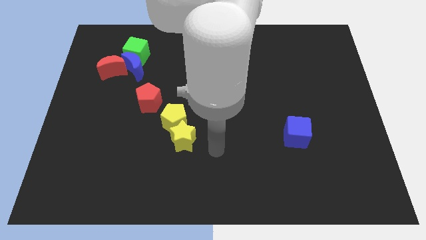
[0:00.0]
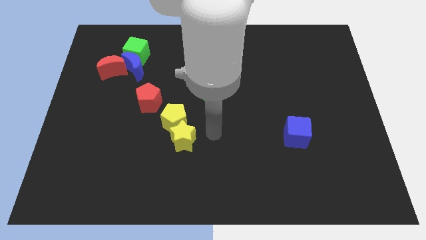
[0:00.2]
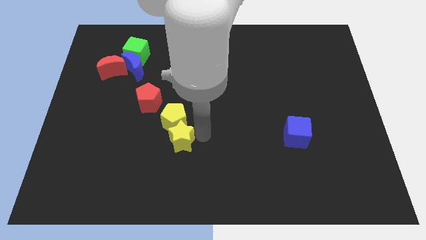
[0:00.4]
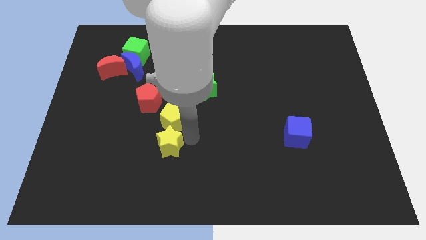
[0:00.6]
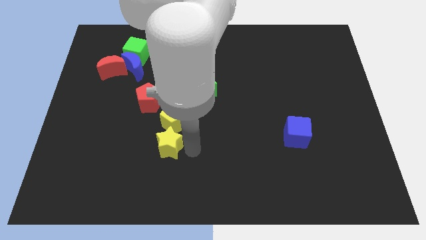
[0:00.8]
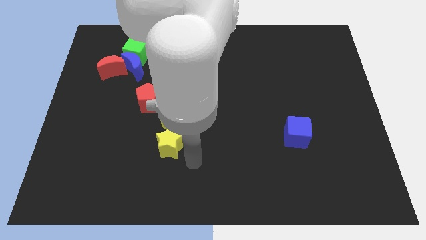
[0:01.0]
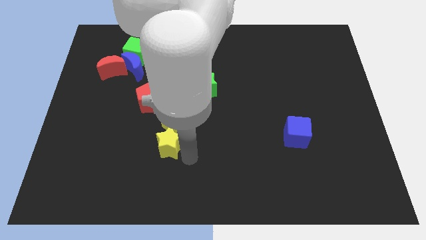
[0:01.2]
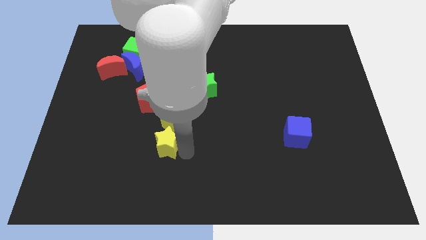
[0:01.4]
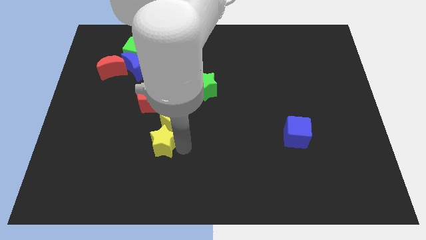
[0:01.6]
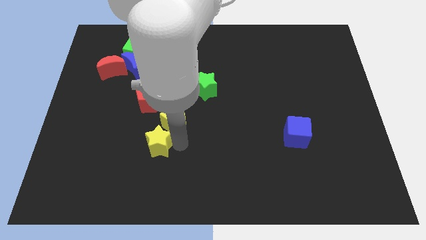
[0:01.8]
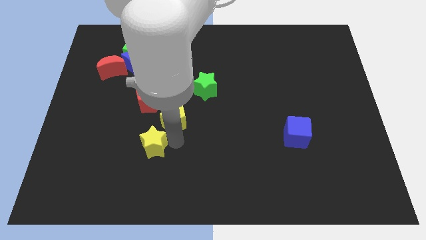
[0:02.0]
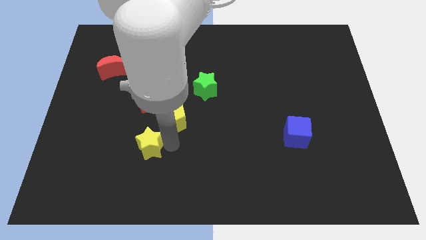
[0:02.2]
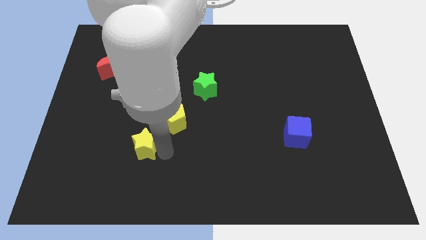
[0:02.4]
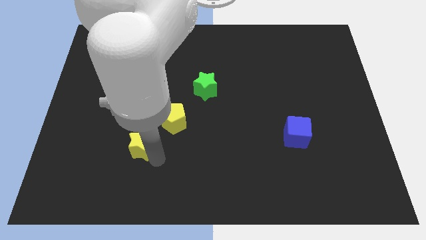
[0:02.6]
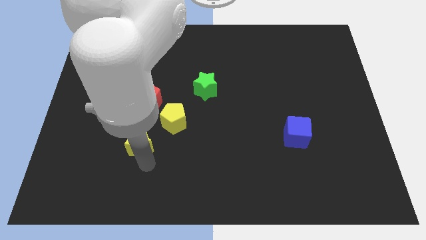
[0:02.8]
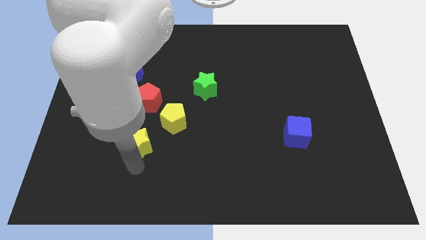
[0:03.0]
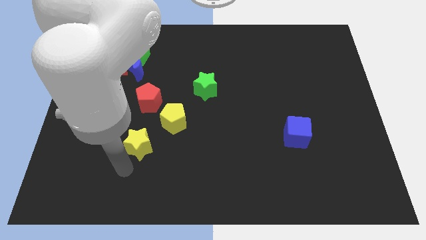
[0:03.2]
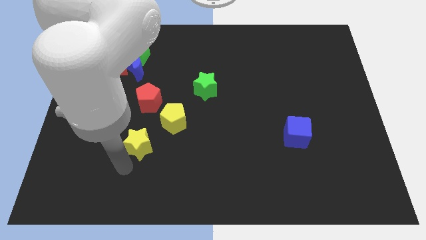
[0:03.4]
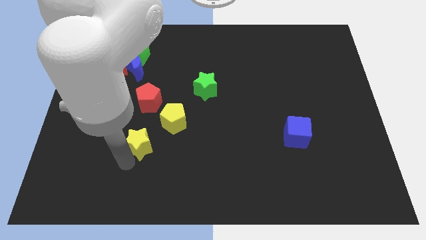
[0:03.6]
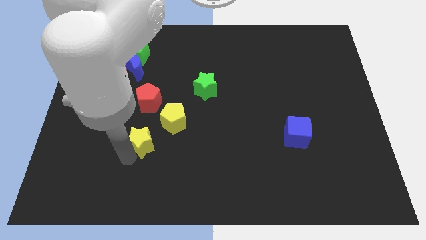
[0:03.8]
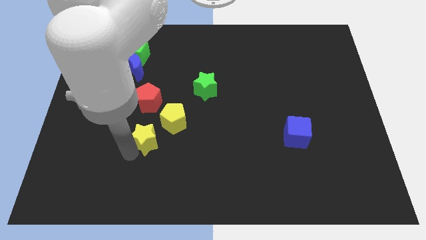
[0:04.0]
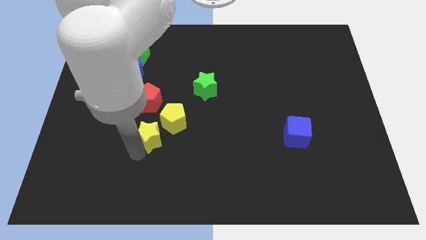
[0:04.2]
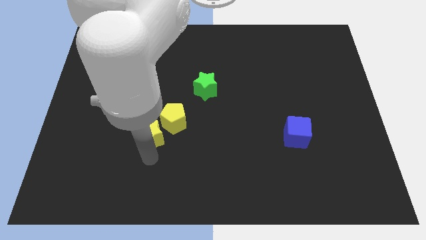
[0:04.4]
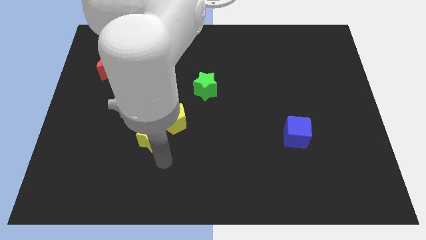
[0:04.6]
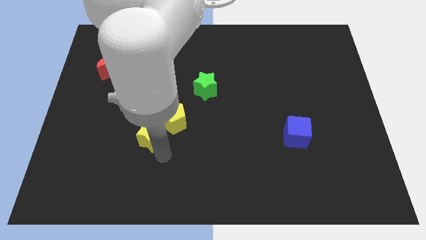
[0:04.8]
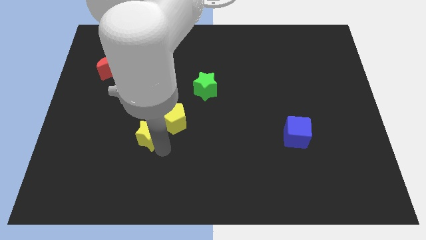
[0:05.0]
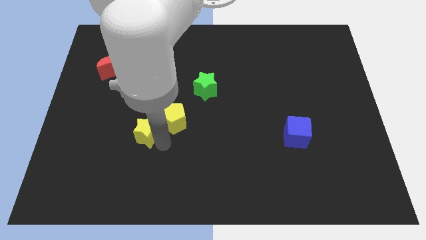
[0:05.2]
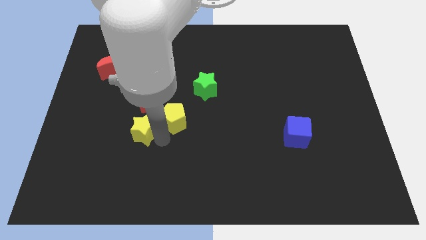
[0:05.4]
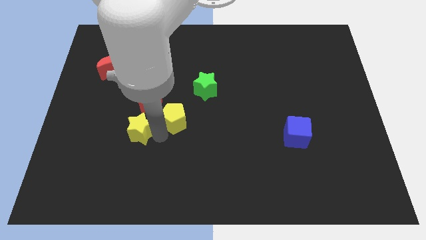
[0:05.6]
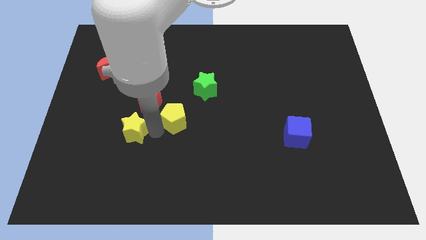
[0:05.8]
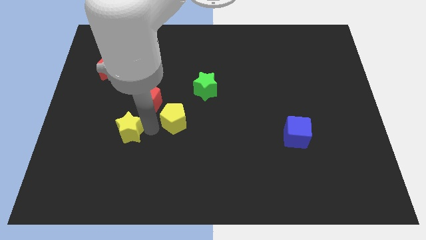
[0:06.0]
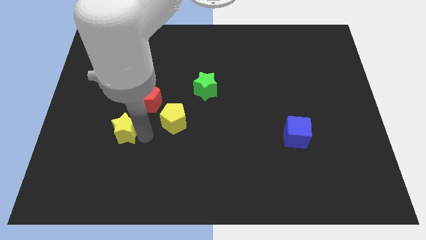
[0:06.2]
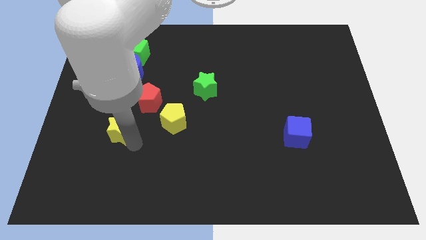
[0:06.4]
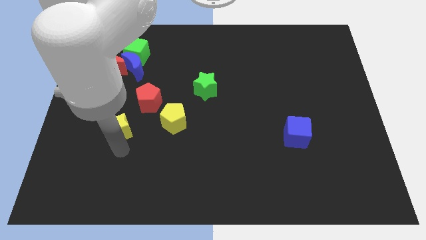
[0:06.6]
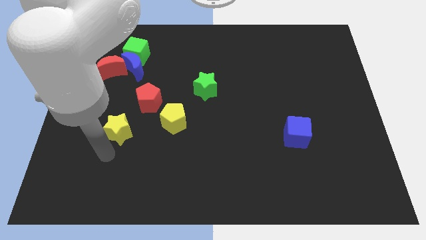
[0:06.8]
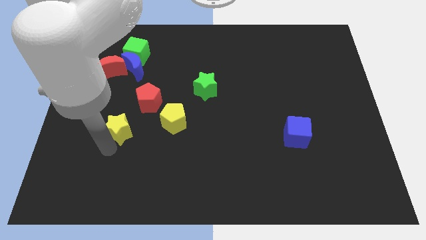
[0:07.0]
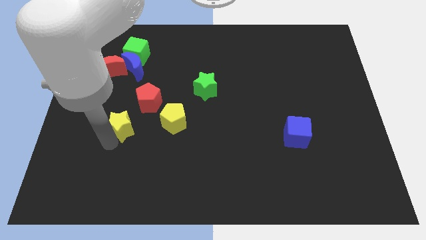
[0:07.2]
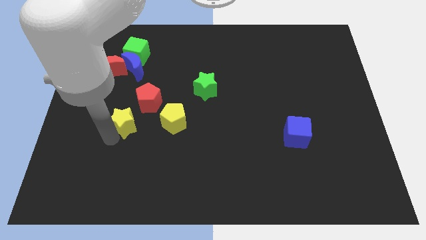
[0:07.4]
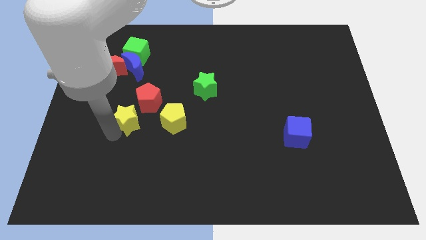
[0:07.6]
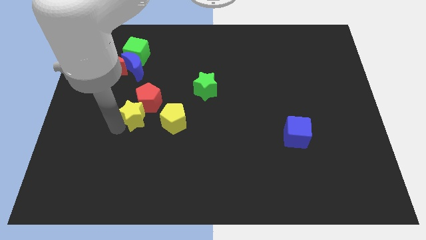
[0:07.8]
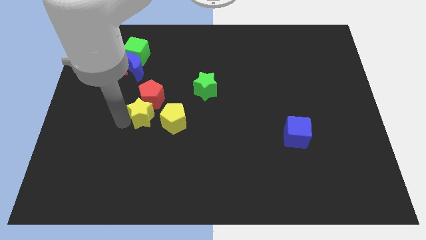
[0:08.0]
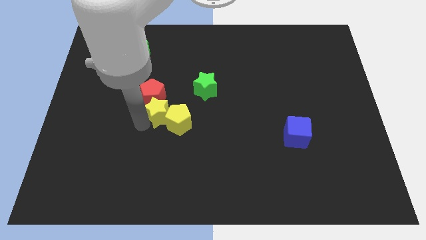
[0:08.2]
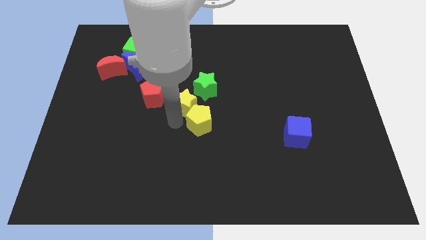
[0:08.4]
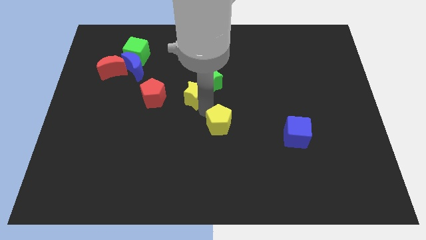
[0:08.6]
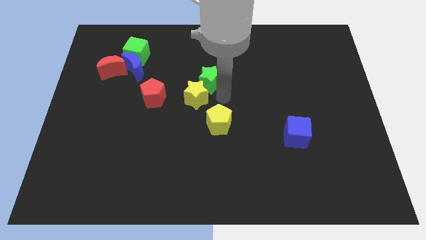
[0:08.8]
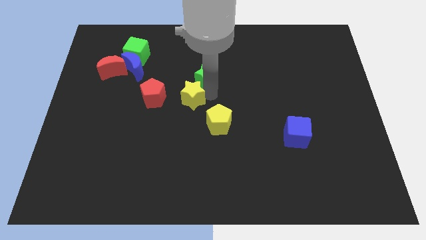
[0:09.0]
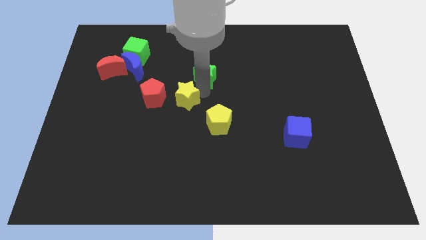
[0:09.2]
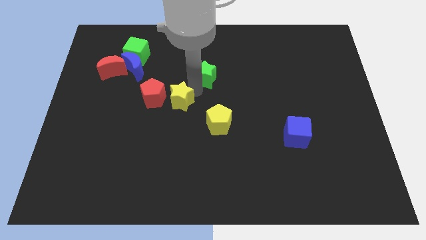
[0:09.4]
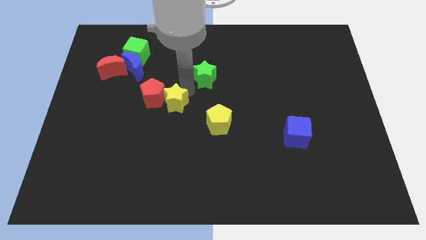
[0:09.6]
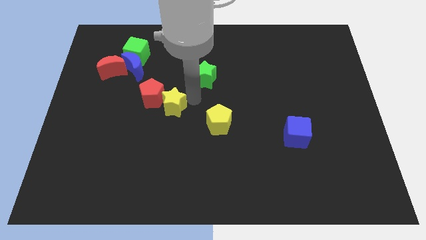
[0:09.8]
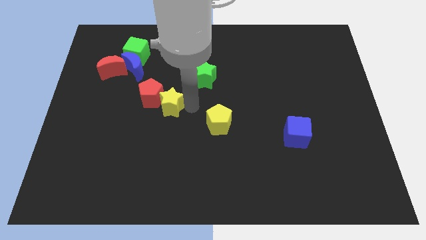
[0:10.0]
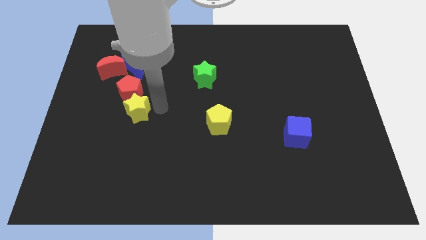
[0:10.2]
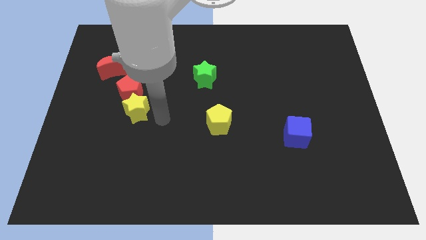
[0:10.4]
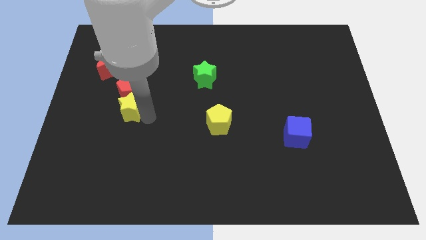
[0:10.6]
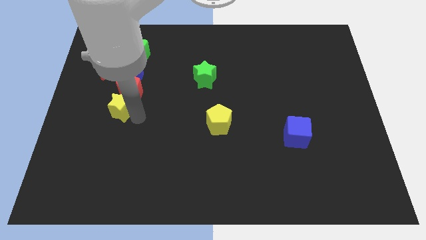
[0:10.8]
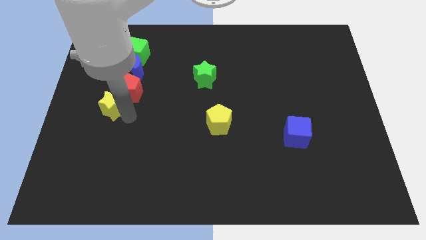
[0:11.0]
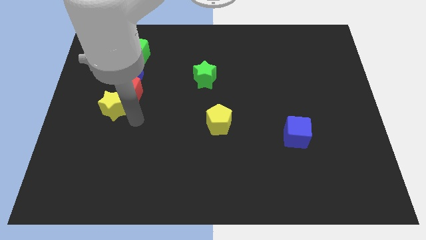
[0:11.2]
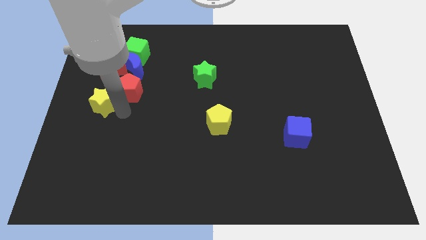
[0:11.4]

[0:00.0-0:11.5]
put the yellow star just left of the red pentagon

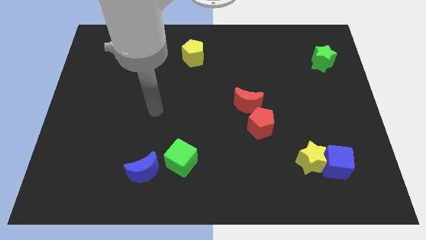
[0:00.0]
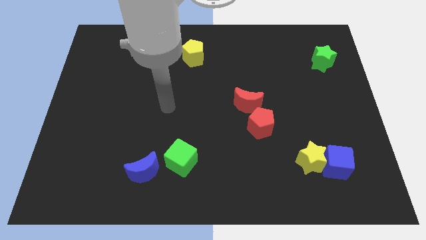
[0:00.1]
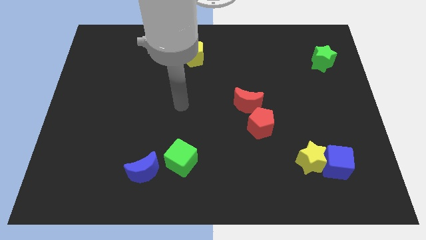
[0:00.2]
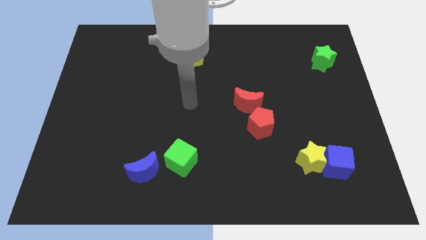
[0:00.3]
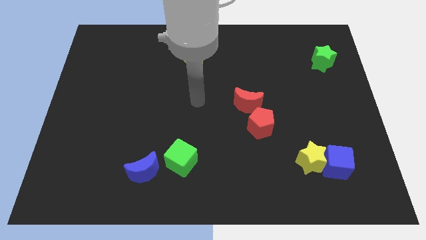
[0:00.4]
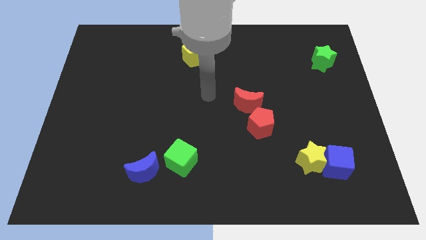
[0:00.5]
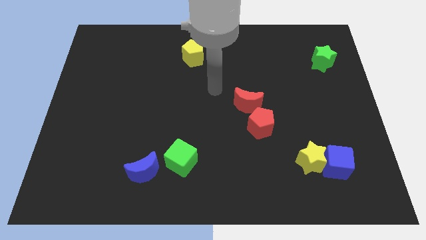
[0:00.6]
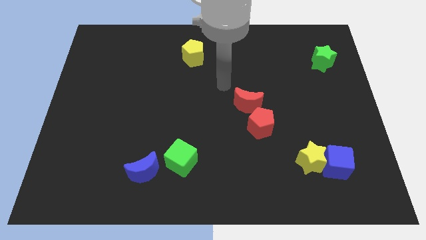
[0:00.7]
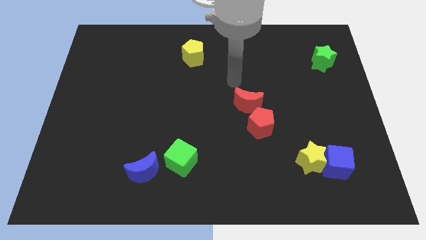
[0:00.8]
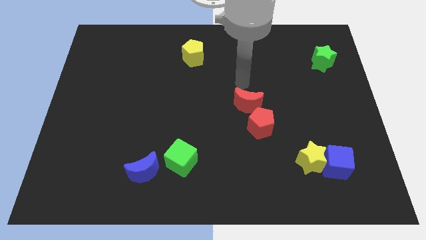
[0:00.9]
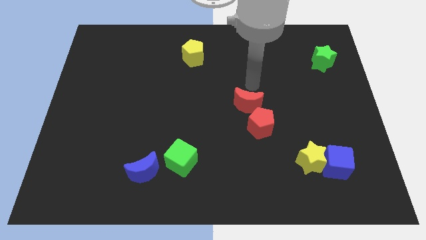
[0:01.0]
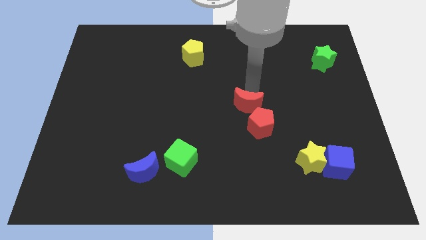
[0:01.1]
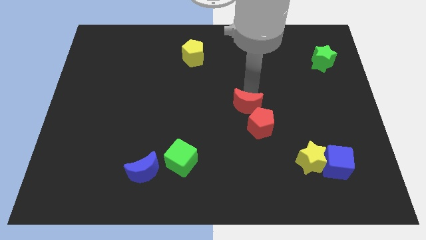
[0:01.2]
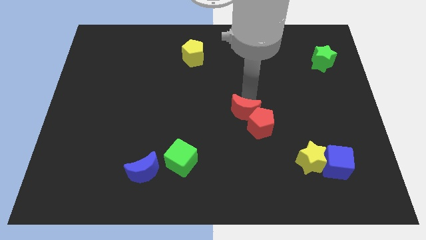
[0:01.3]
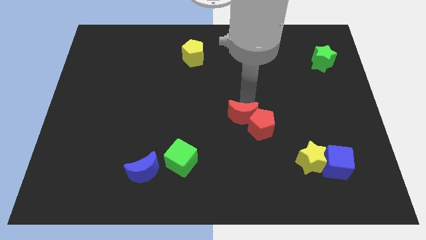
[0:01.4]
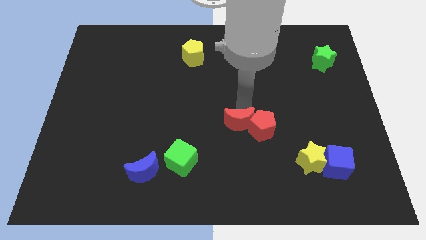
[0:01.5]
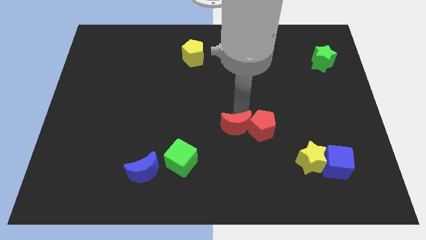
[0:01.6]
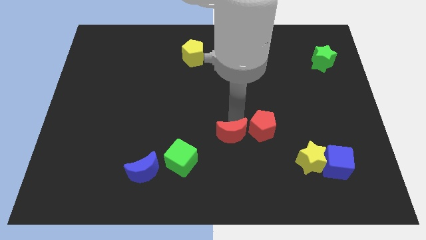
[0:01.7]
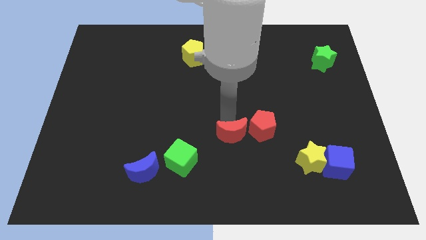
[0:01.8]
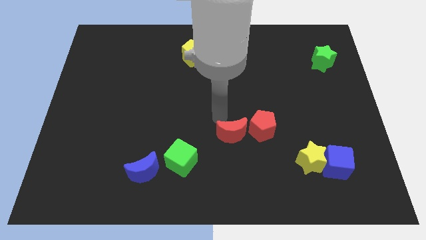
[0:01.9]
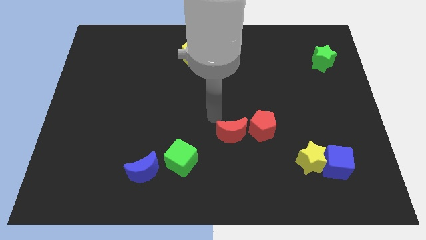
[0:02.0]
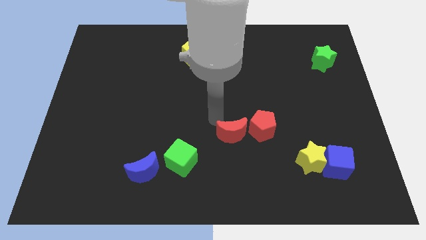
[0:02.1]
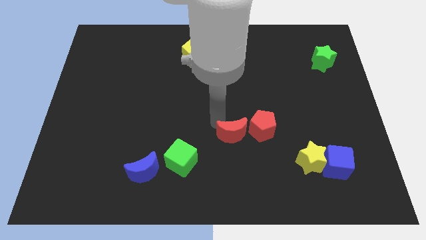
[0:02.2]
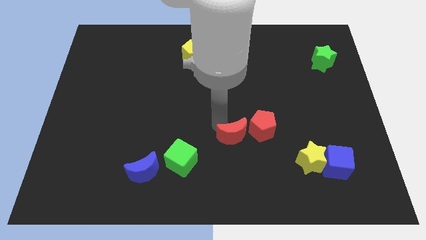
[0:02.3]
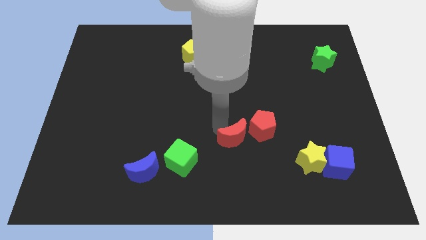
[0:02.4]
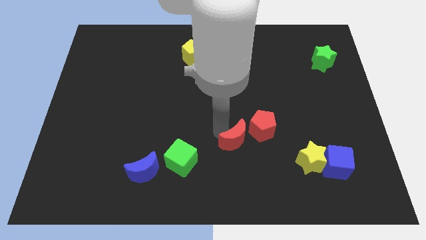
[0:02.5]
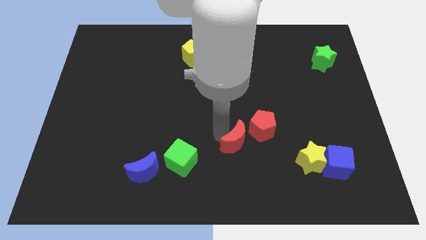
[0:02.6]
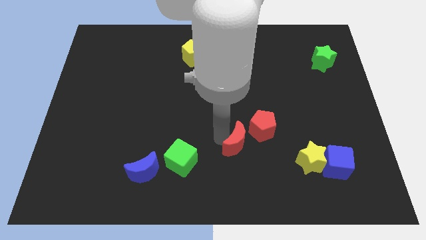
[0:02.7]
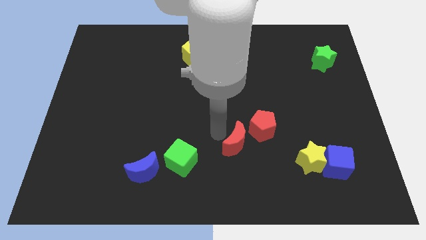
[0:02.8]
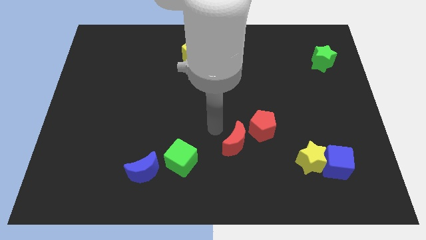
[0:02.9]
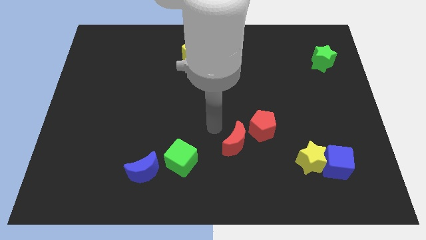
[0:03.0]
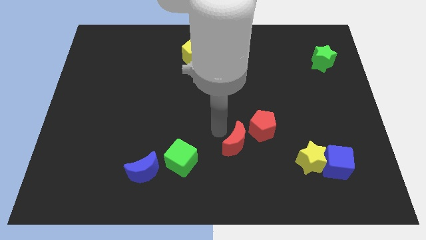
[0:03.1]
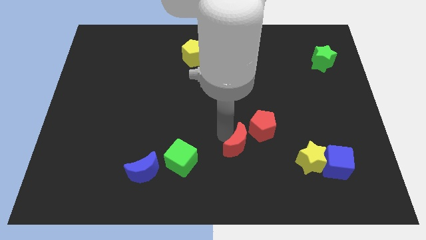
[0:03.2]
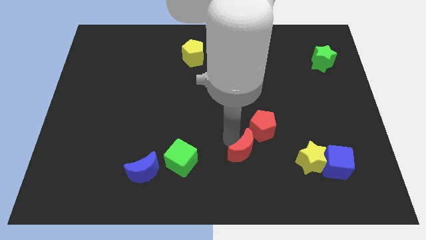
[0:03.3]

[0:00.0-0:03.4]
move the red moon to the left of the yellow star
